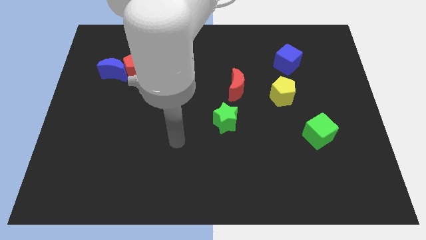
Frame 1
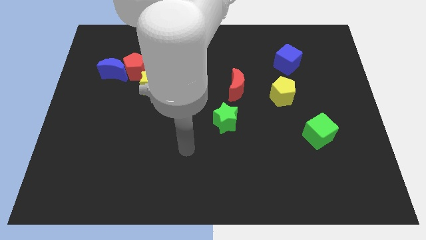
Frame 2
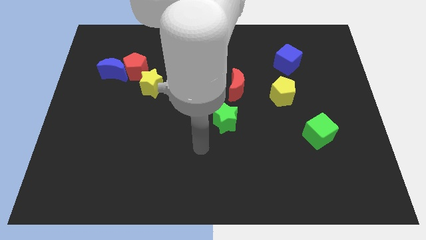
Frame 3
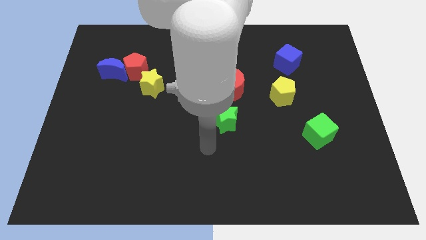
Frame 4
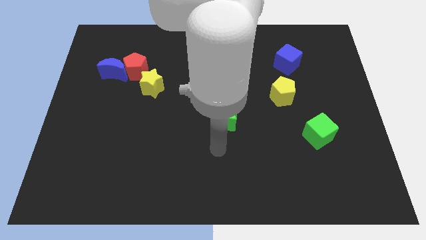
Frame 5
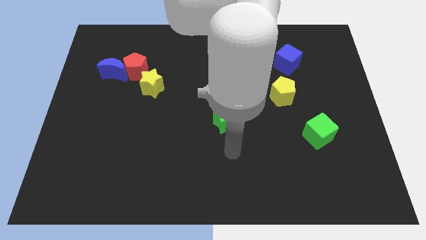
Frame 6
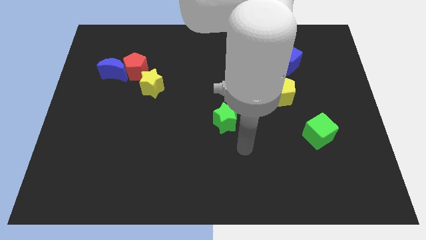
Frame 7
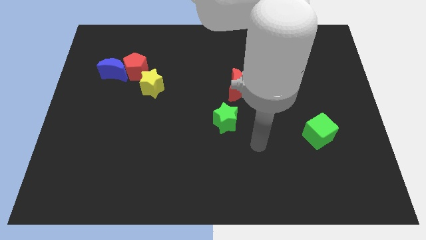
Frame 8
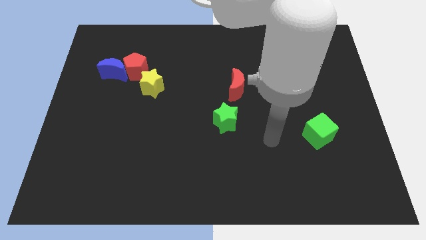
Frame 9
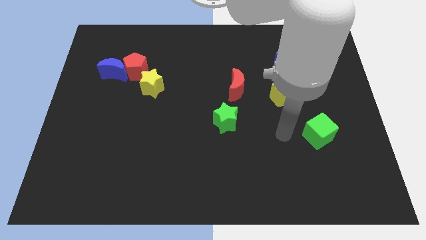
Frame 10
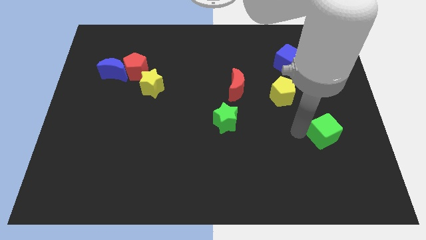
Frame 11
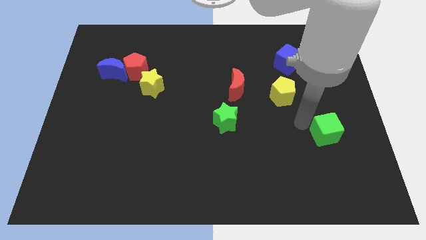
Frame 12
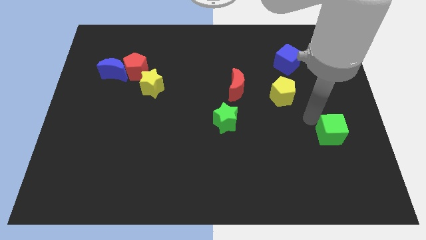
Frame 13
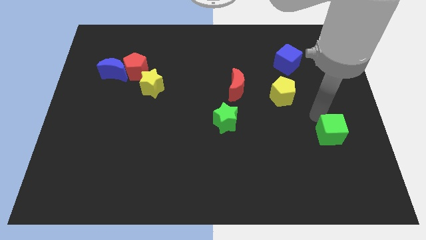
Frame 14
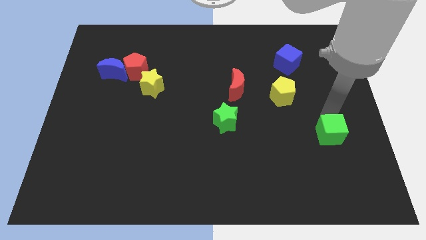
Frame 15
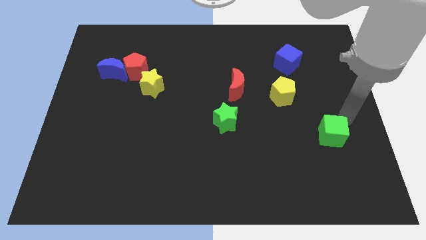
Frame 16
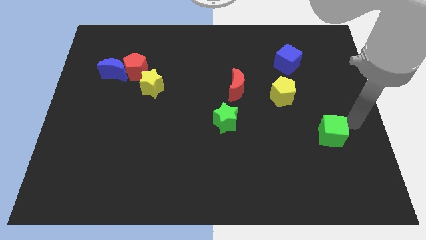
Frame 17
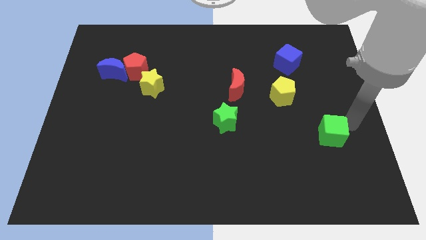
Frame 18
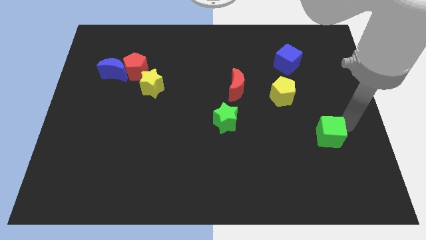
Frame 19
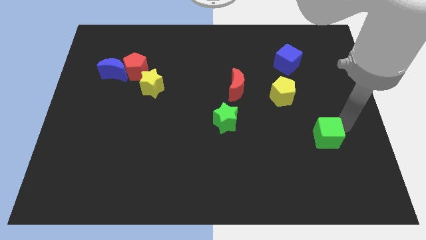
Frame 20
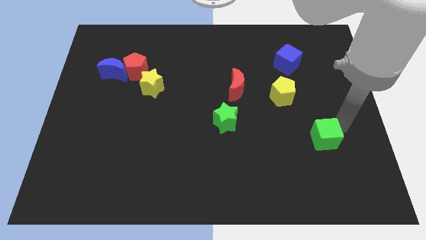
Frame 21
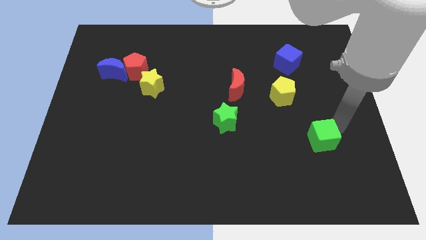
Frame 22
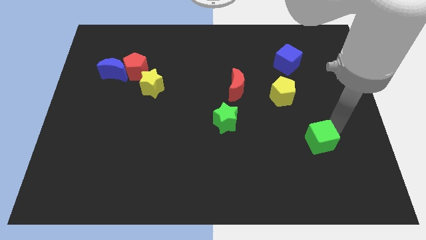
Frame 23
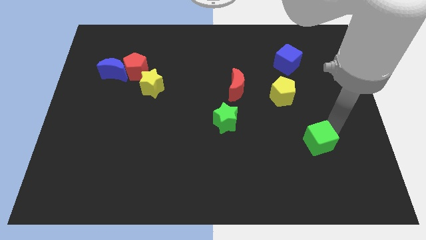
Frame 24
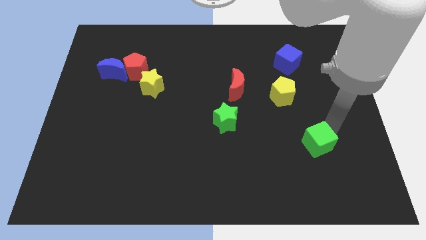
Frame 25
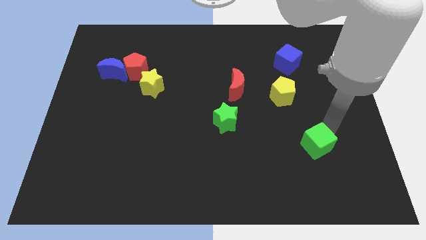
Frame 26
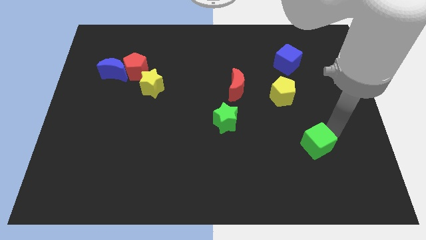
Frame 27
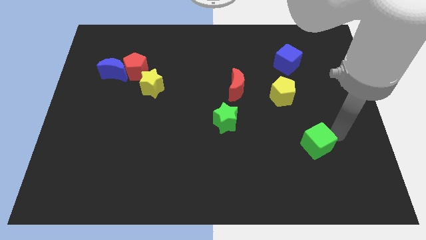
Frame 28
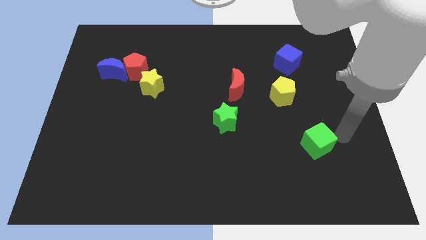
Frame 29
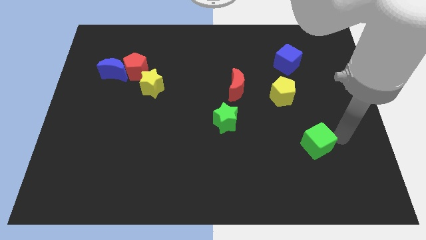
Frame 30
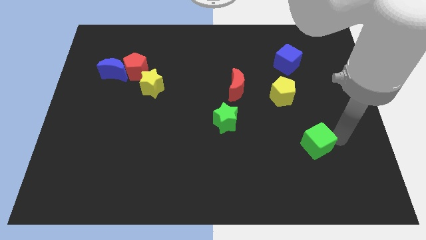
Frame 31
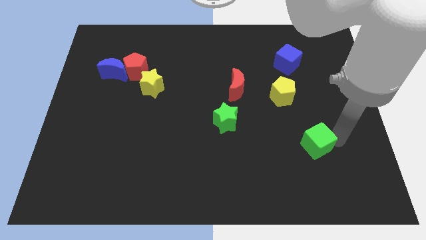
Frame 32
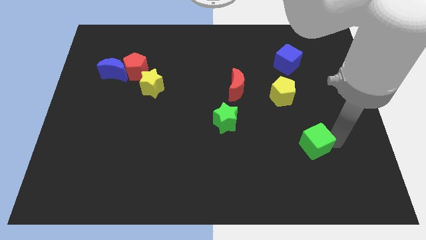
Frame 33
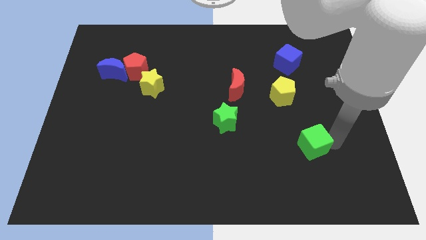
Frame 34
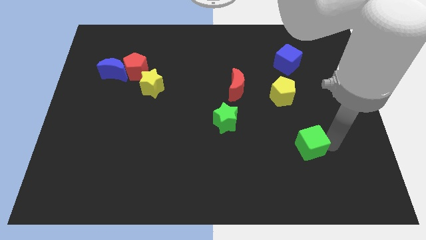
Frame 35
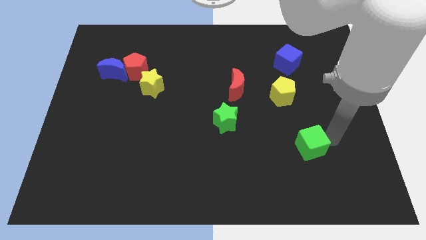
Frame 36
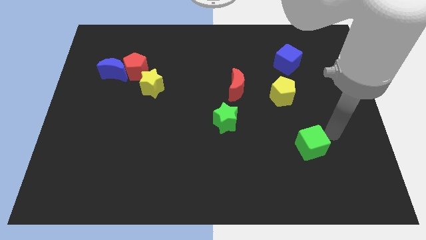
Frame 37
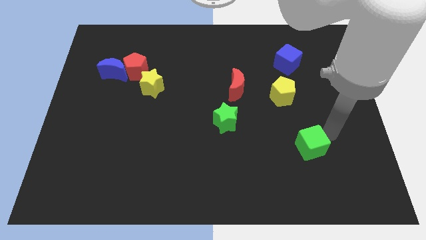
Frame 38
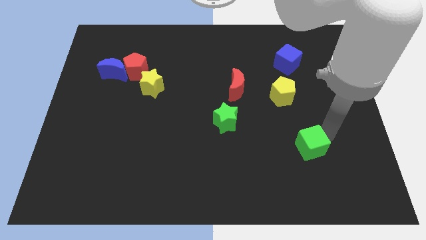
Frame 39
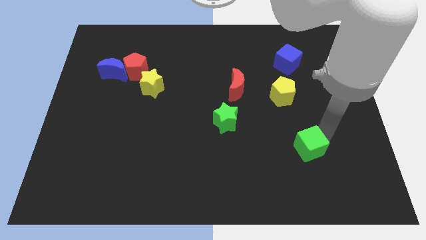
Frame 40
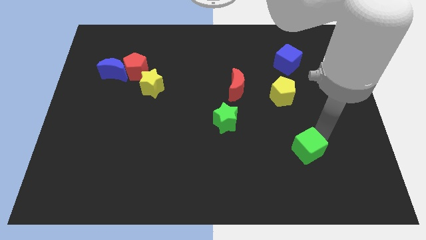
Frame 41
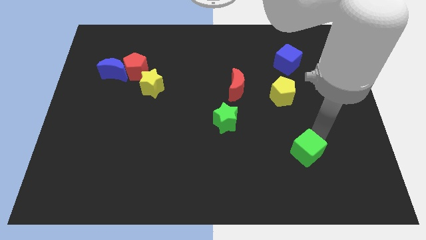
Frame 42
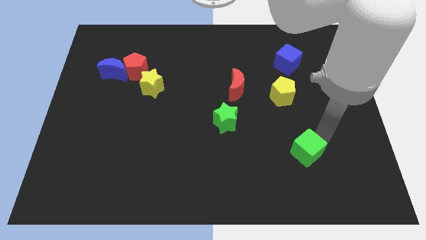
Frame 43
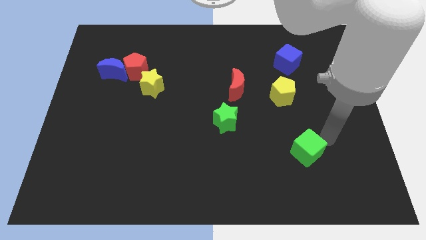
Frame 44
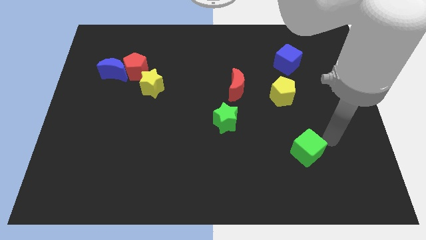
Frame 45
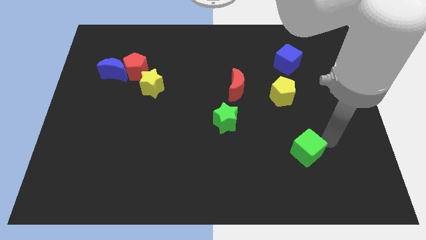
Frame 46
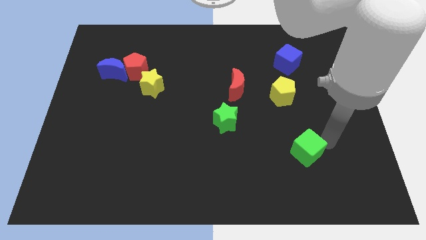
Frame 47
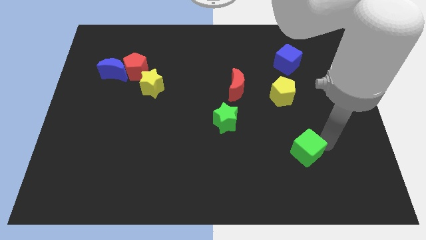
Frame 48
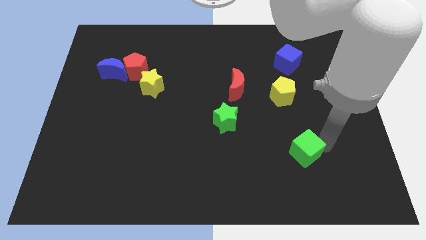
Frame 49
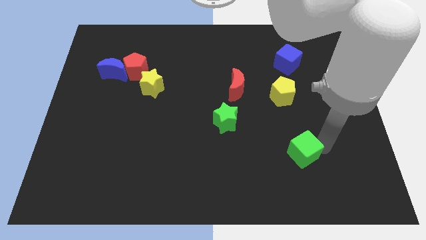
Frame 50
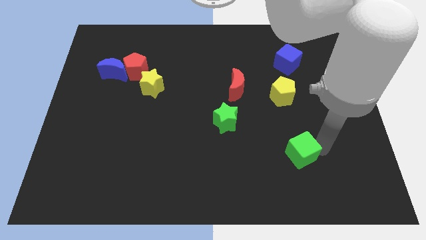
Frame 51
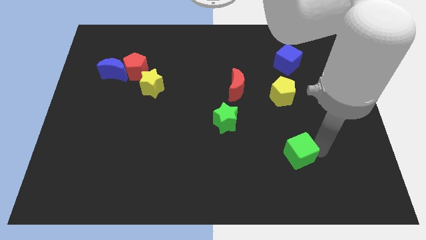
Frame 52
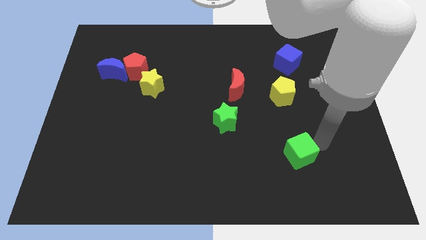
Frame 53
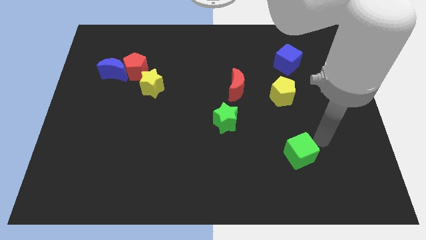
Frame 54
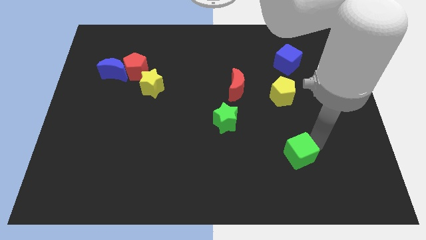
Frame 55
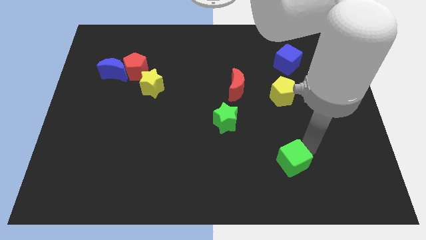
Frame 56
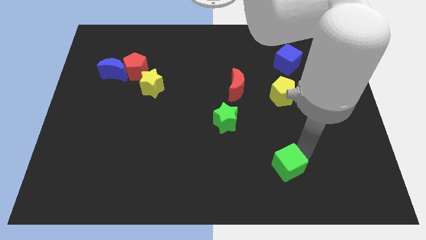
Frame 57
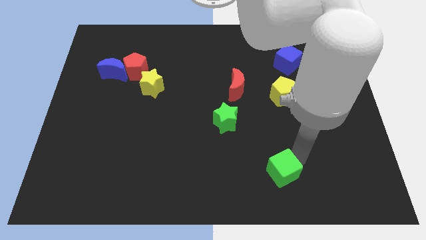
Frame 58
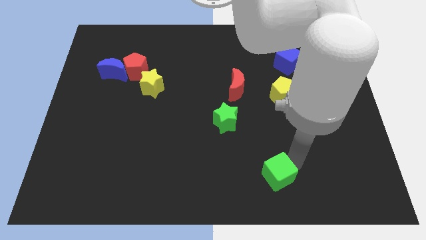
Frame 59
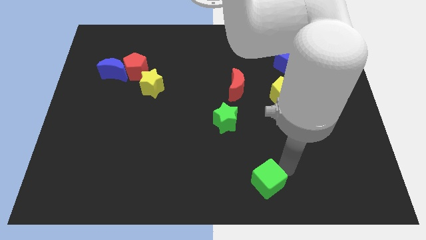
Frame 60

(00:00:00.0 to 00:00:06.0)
put the green cube to the bottom
